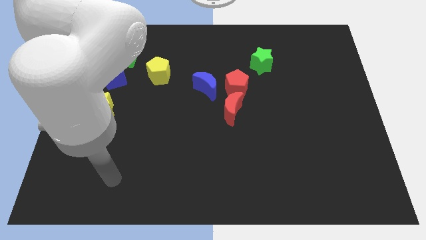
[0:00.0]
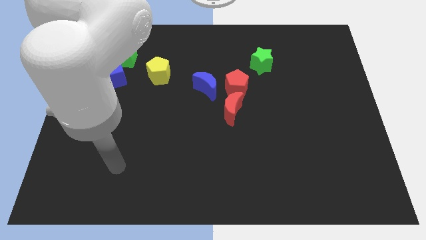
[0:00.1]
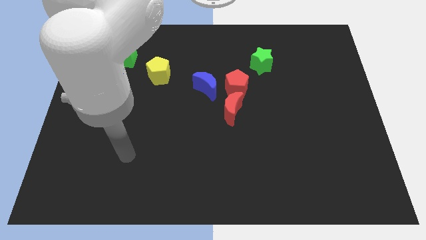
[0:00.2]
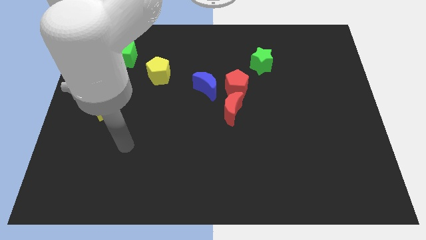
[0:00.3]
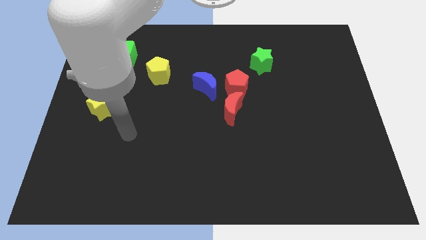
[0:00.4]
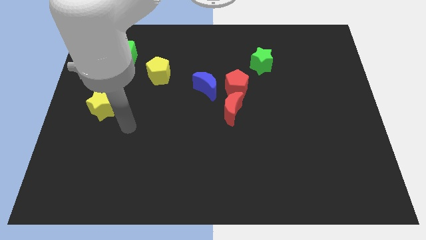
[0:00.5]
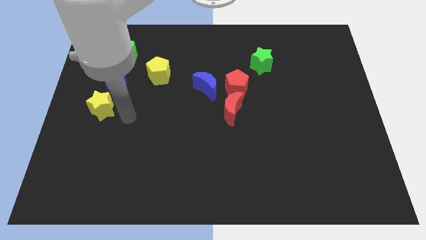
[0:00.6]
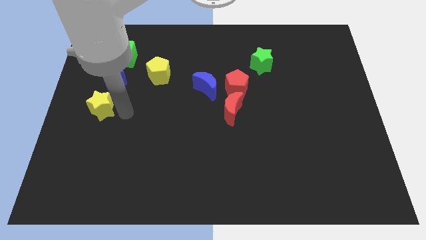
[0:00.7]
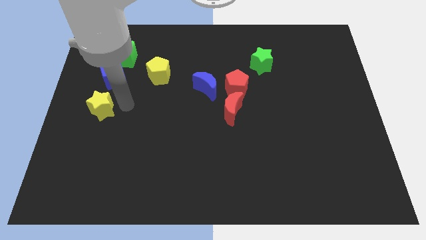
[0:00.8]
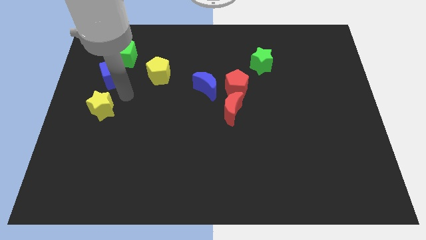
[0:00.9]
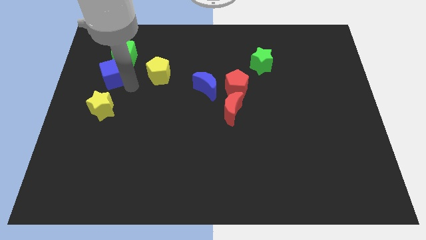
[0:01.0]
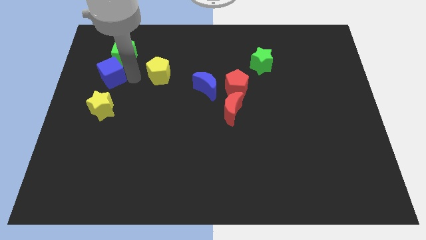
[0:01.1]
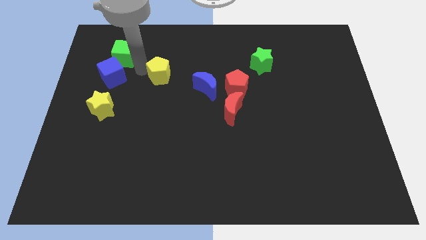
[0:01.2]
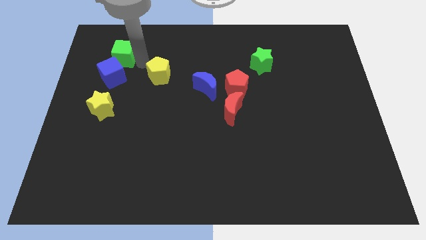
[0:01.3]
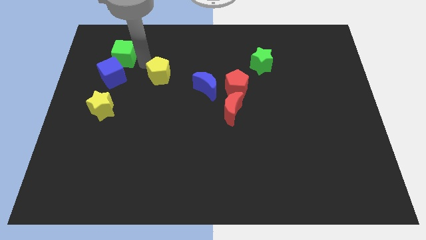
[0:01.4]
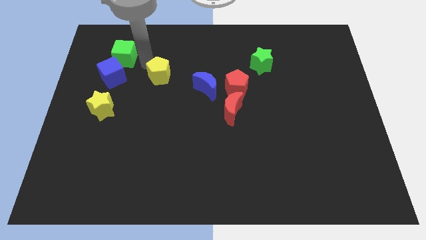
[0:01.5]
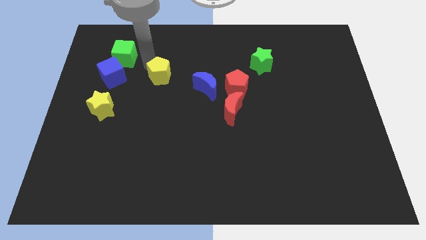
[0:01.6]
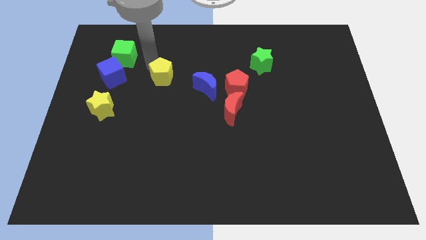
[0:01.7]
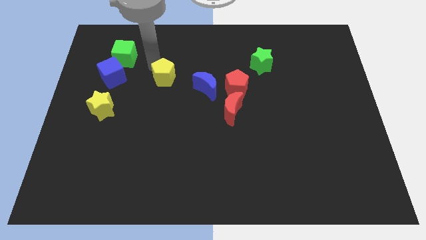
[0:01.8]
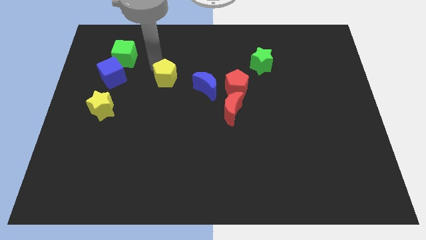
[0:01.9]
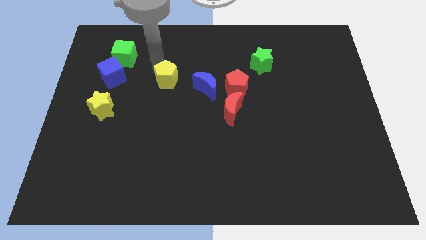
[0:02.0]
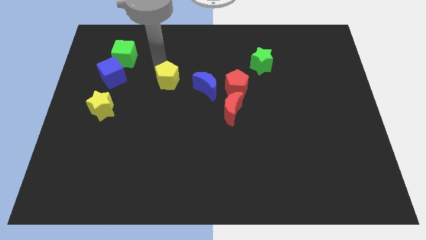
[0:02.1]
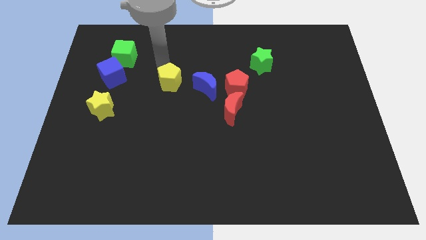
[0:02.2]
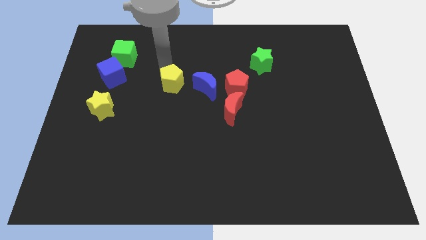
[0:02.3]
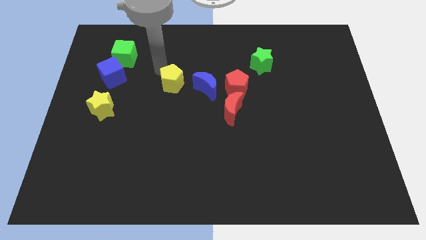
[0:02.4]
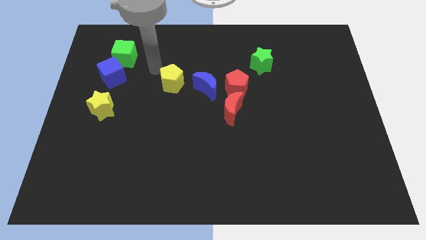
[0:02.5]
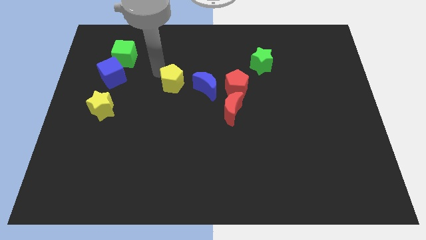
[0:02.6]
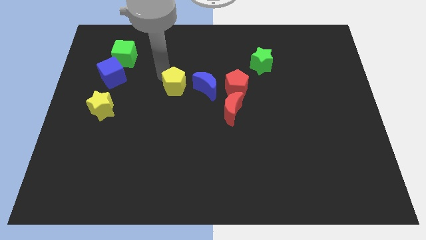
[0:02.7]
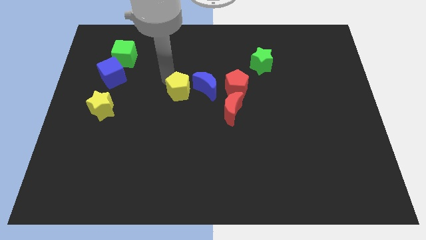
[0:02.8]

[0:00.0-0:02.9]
move the yellow pentagon diagonally downwards and right somewhat

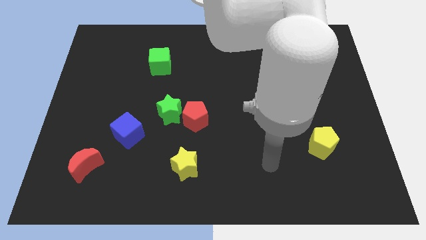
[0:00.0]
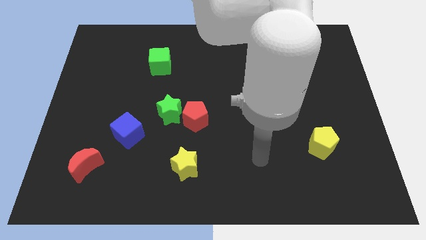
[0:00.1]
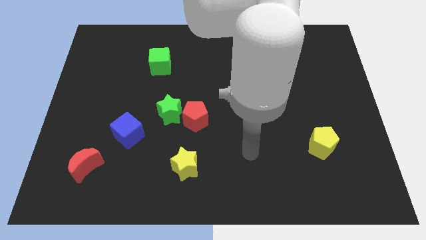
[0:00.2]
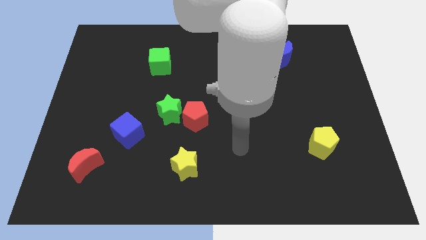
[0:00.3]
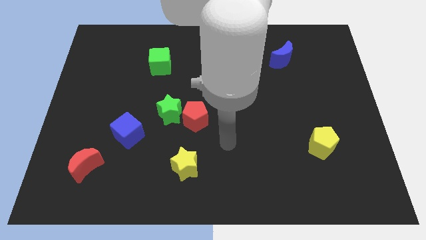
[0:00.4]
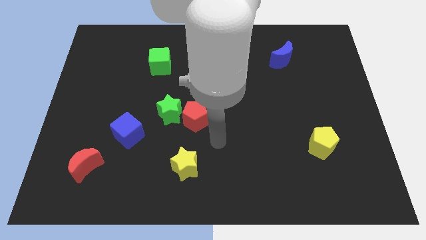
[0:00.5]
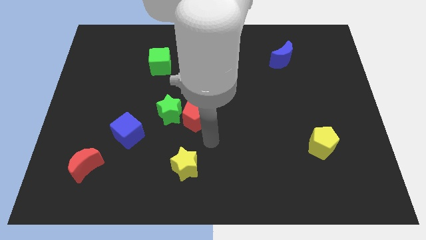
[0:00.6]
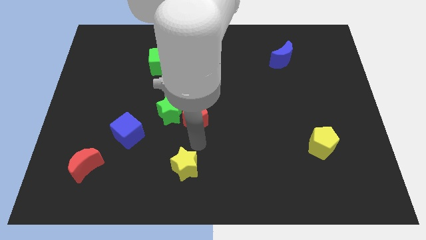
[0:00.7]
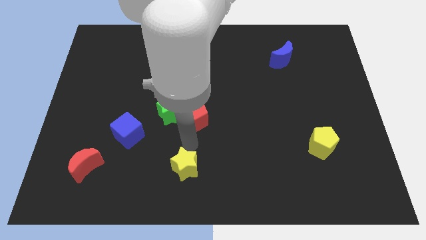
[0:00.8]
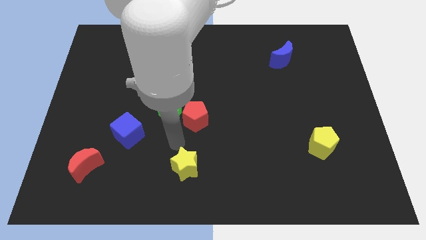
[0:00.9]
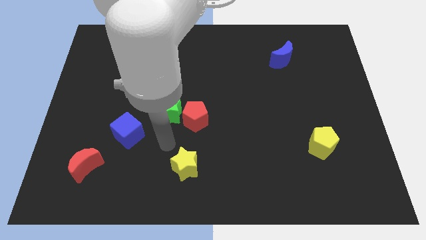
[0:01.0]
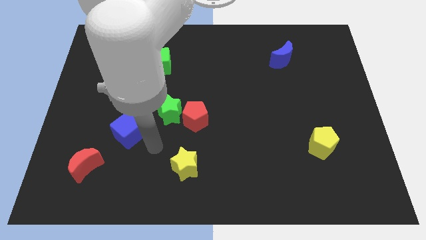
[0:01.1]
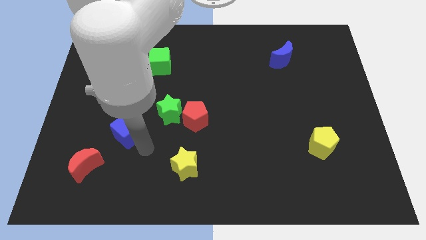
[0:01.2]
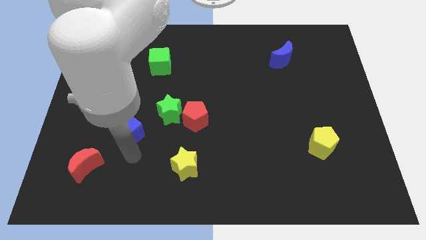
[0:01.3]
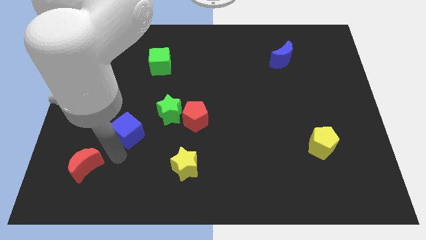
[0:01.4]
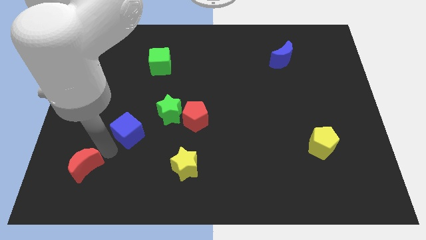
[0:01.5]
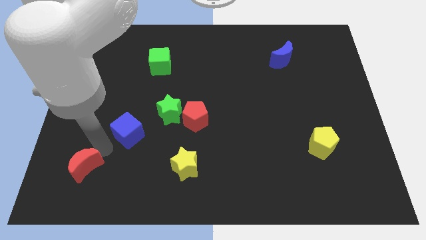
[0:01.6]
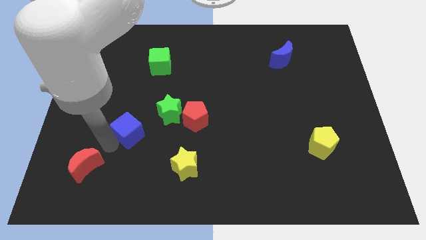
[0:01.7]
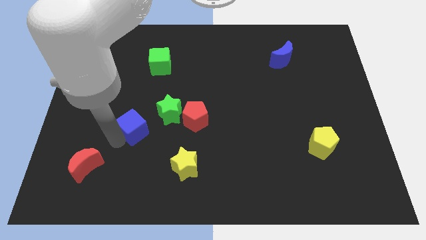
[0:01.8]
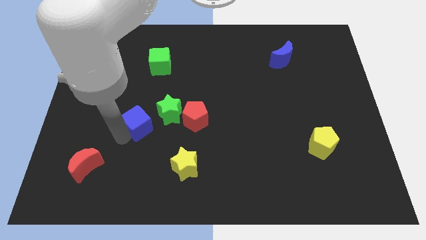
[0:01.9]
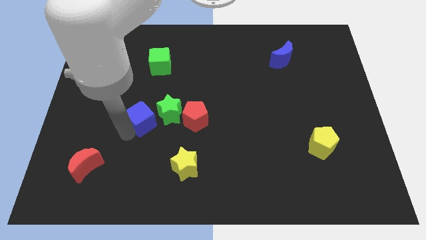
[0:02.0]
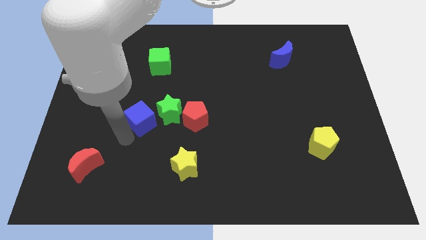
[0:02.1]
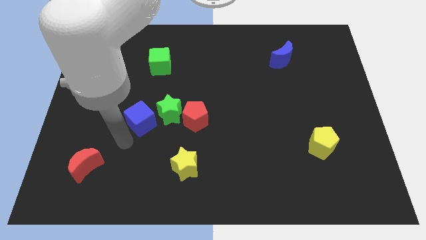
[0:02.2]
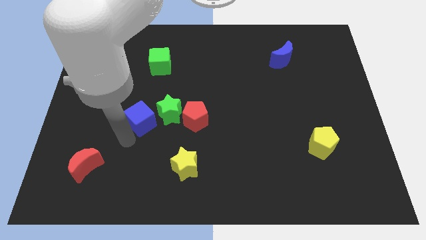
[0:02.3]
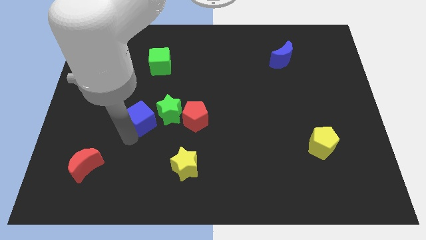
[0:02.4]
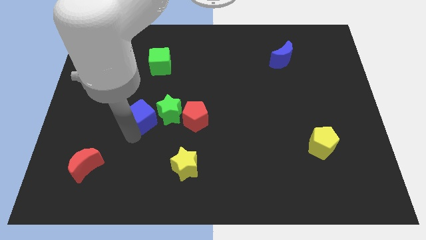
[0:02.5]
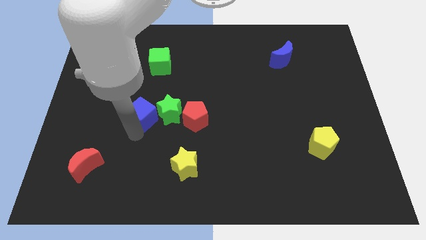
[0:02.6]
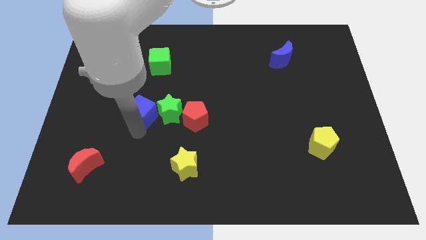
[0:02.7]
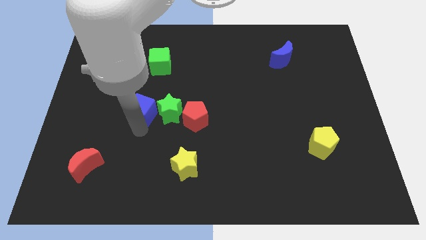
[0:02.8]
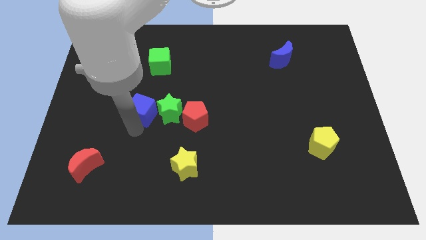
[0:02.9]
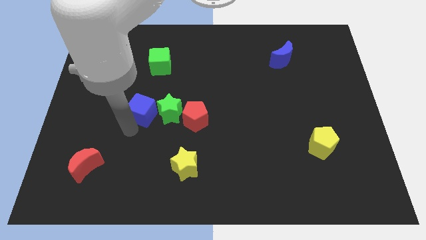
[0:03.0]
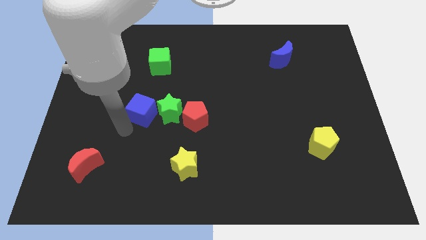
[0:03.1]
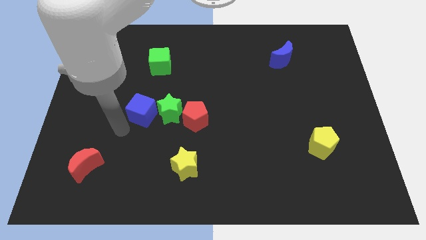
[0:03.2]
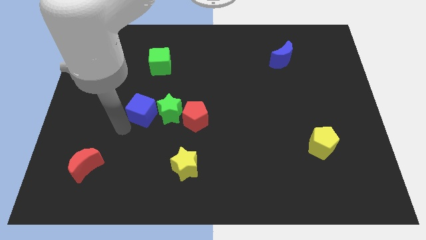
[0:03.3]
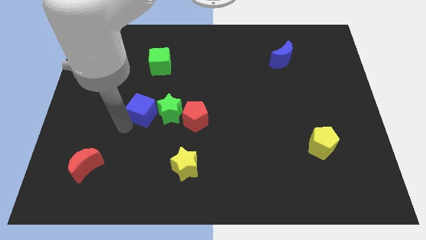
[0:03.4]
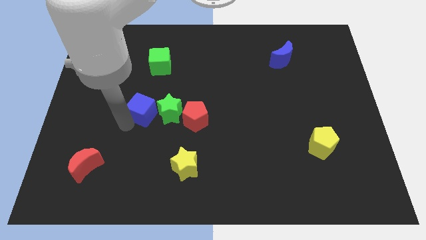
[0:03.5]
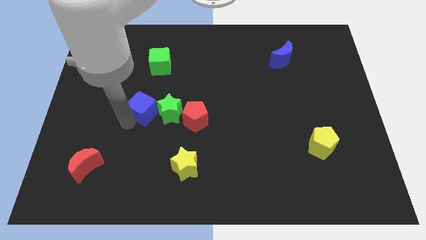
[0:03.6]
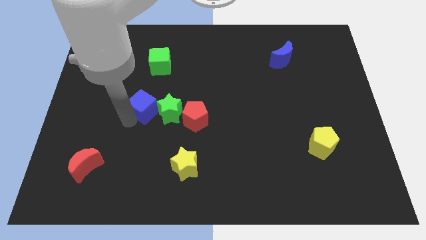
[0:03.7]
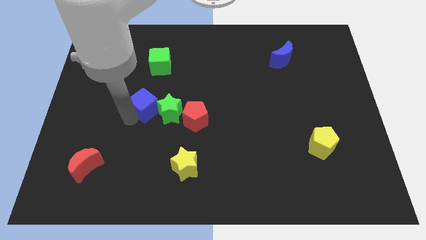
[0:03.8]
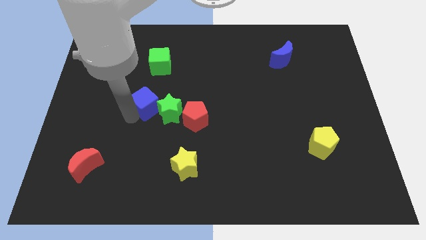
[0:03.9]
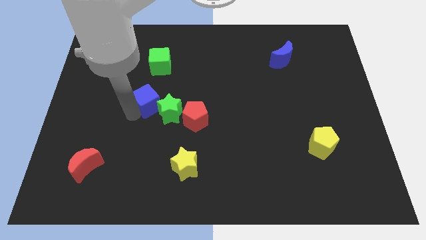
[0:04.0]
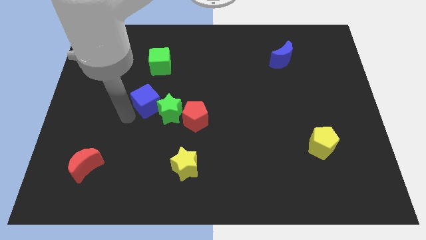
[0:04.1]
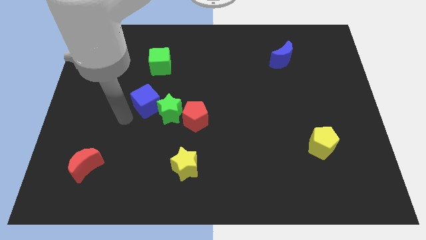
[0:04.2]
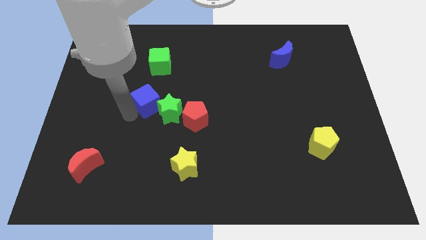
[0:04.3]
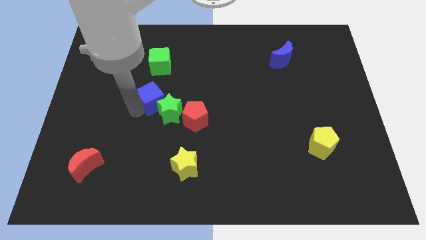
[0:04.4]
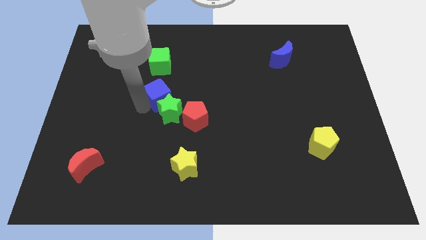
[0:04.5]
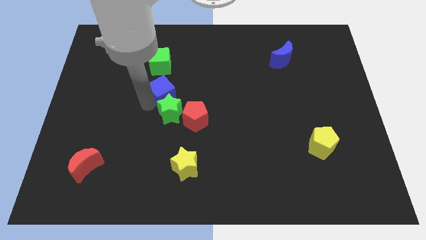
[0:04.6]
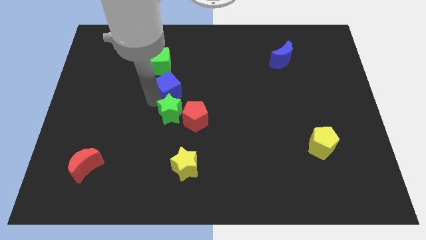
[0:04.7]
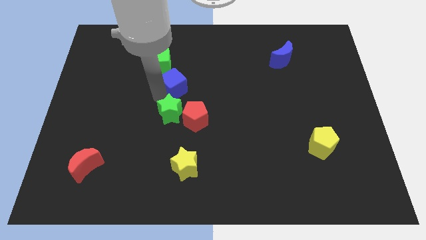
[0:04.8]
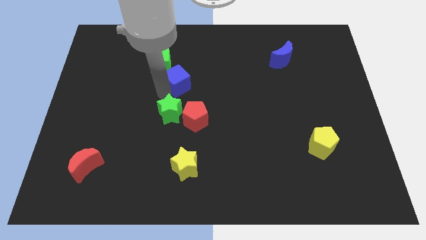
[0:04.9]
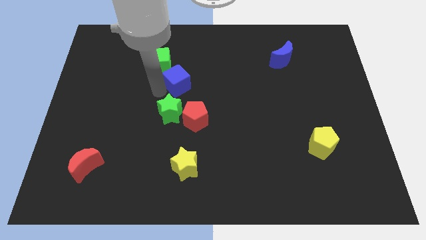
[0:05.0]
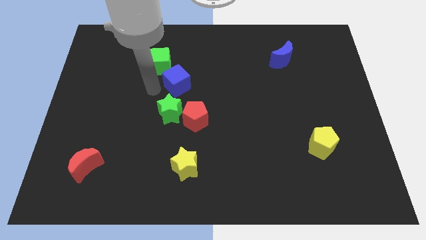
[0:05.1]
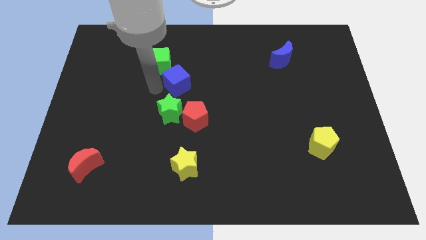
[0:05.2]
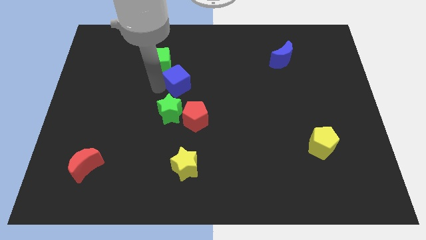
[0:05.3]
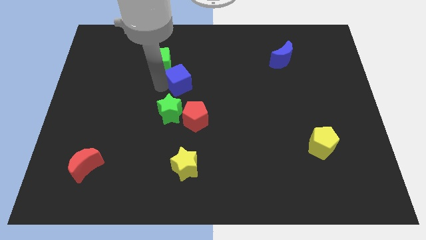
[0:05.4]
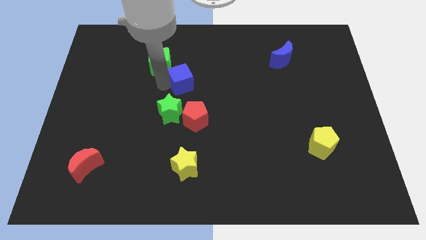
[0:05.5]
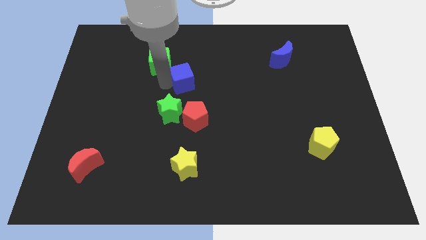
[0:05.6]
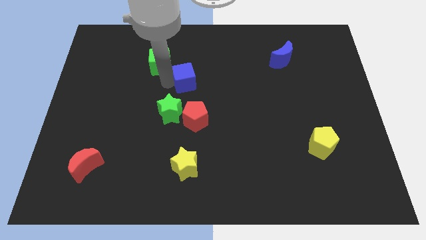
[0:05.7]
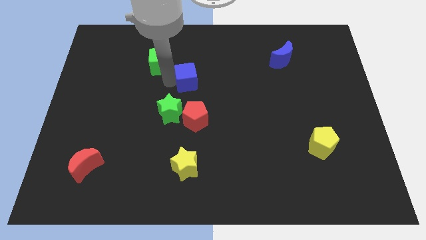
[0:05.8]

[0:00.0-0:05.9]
push the blue cube up and then right
